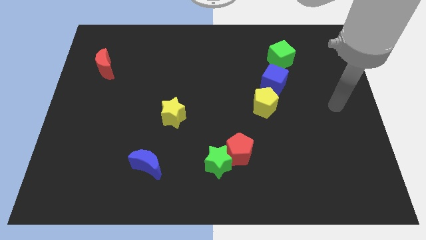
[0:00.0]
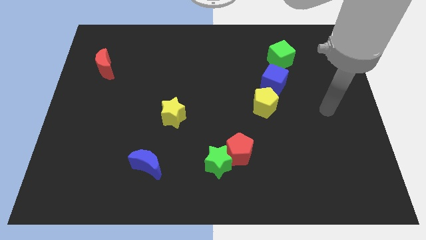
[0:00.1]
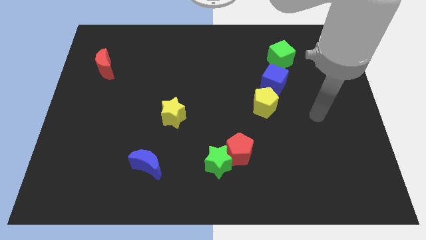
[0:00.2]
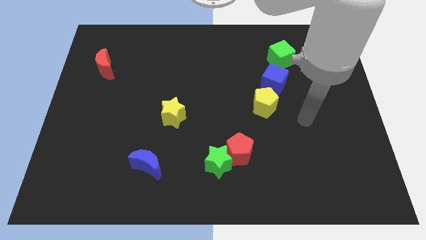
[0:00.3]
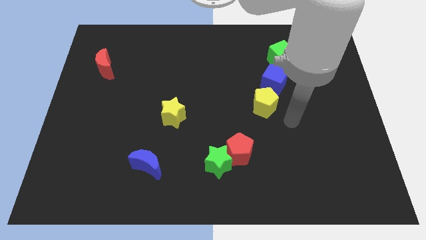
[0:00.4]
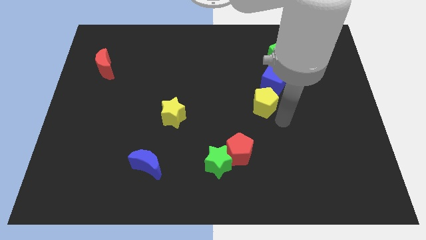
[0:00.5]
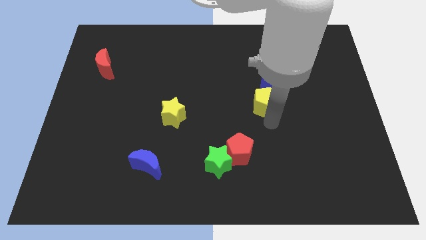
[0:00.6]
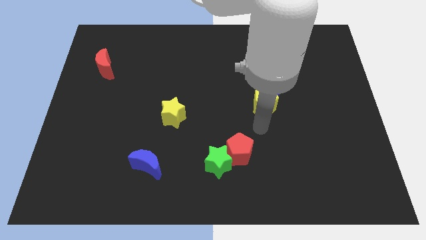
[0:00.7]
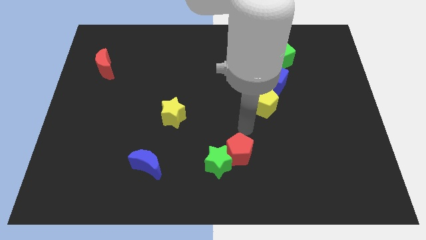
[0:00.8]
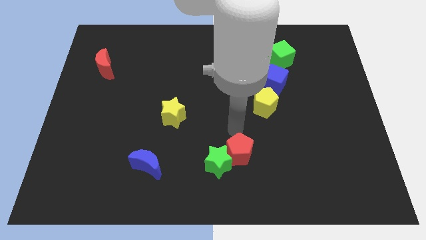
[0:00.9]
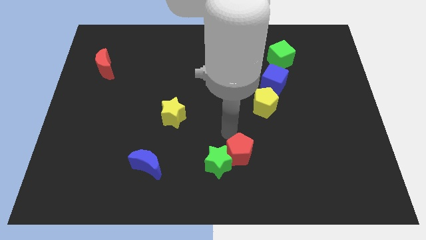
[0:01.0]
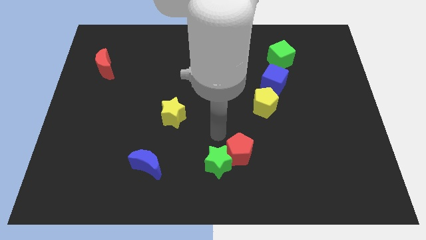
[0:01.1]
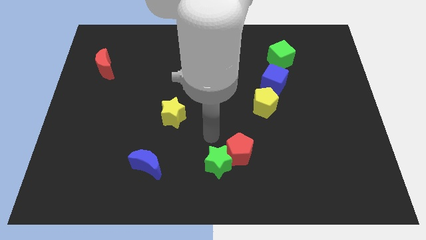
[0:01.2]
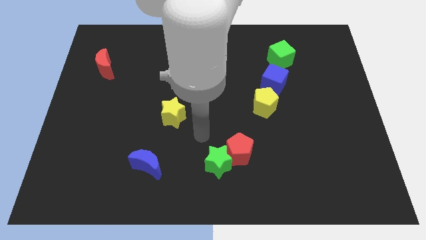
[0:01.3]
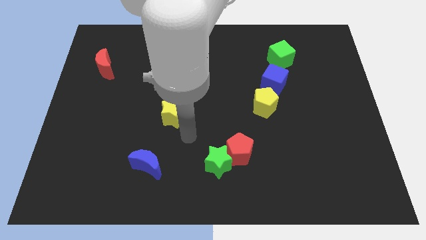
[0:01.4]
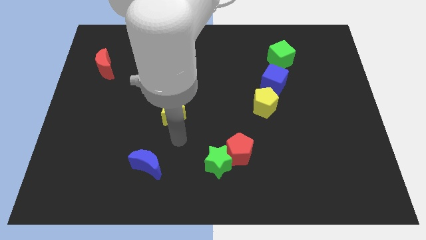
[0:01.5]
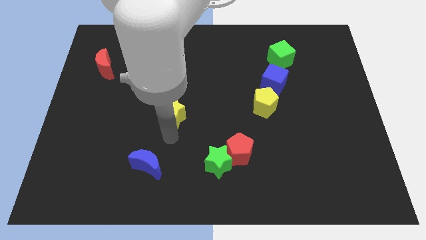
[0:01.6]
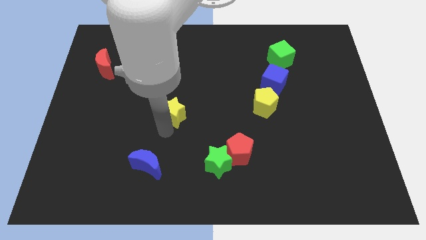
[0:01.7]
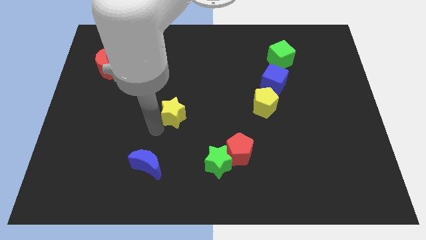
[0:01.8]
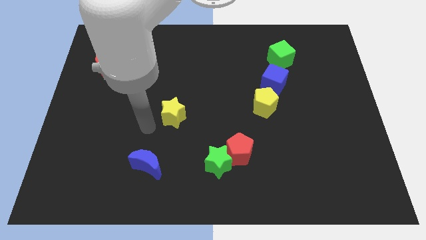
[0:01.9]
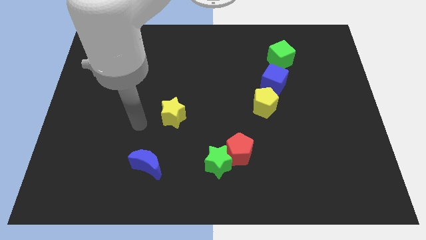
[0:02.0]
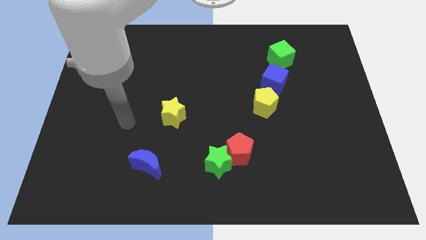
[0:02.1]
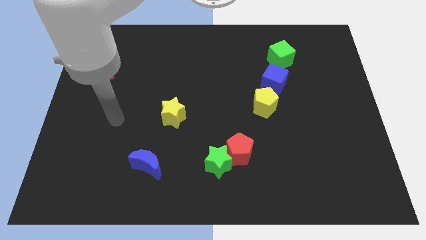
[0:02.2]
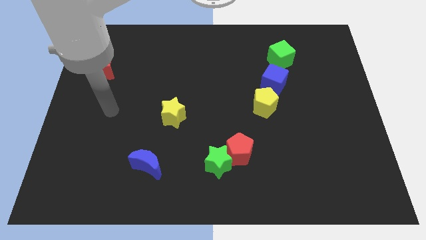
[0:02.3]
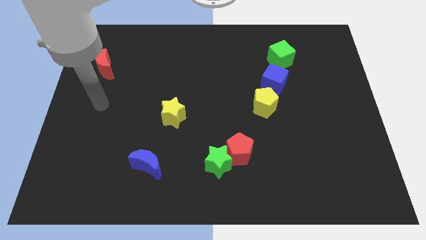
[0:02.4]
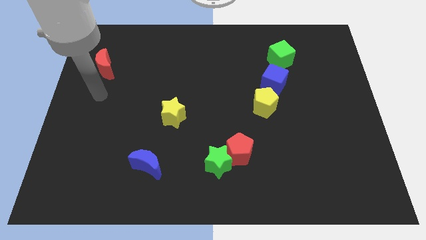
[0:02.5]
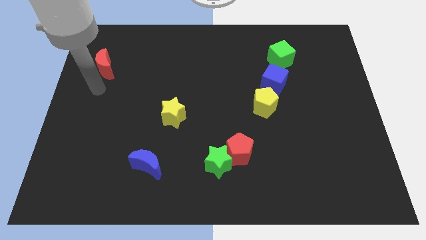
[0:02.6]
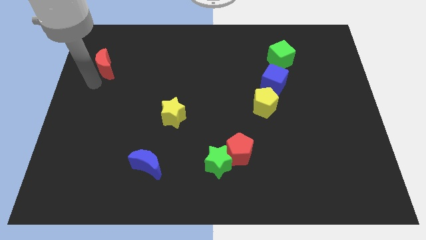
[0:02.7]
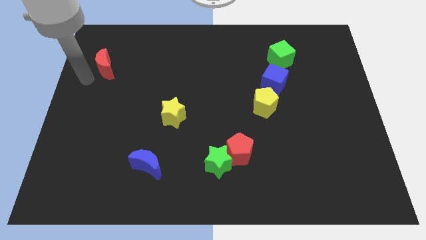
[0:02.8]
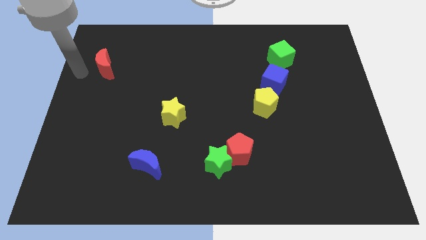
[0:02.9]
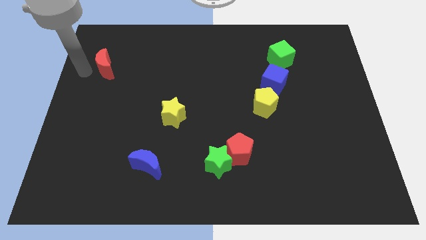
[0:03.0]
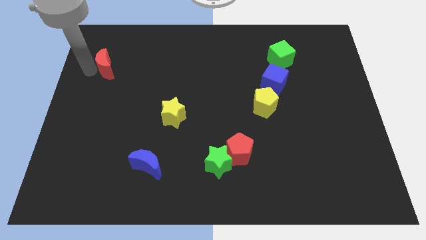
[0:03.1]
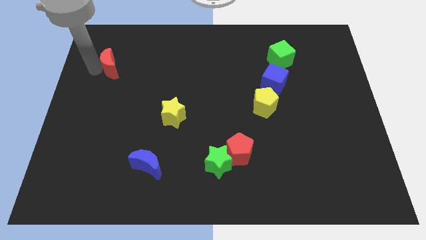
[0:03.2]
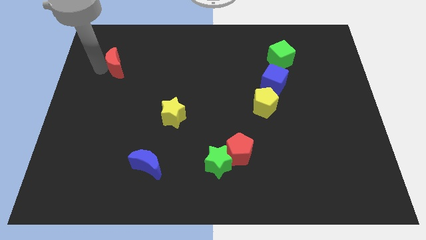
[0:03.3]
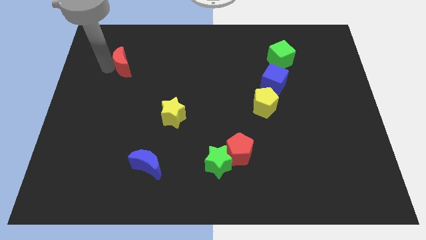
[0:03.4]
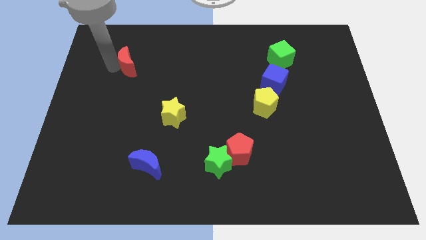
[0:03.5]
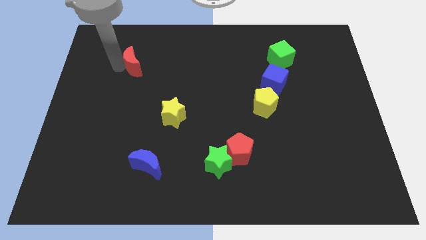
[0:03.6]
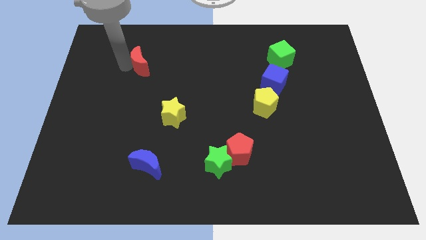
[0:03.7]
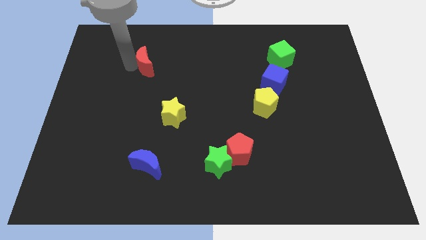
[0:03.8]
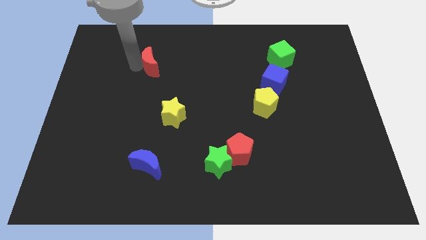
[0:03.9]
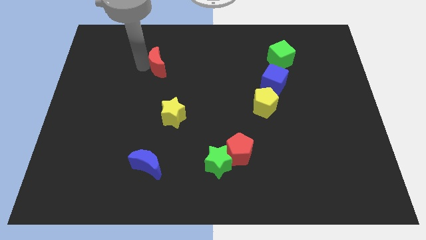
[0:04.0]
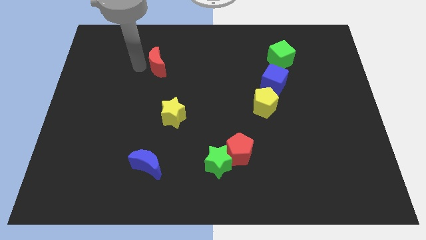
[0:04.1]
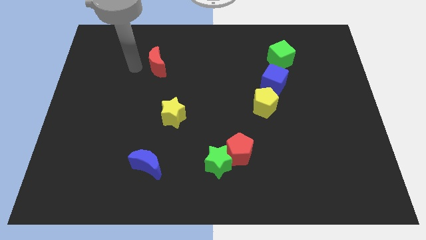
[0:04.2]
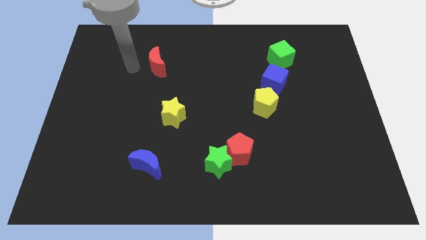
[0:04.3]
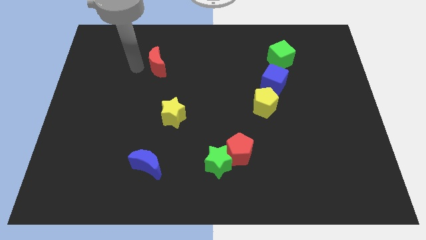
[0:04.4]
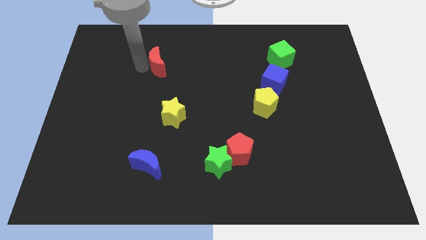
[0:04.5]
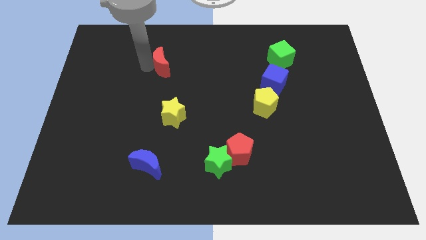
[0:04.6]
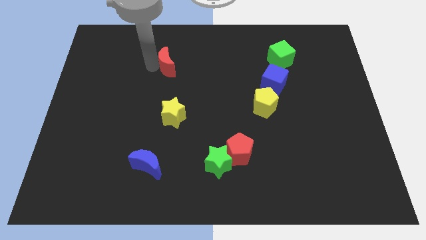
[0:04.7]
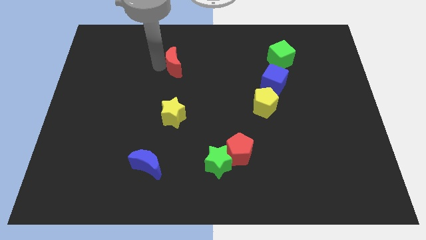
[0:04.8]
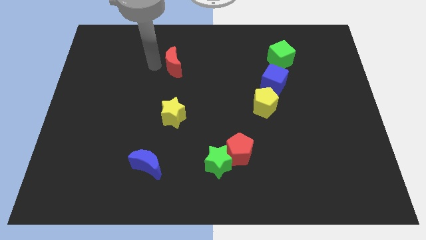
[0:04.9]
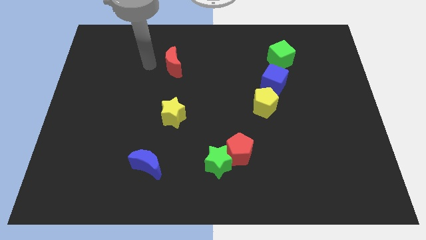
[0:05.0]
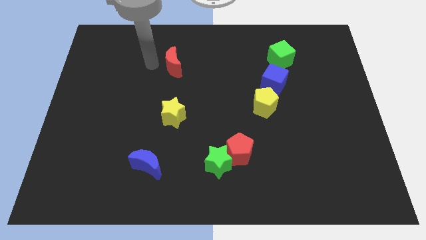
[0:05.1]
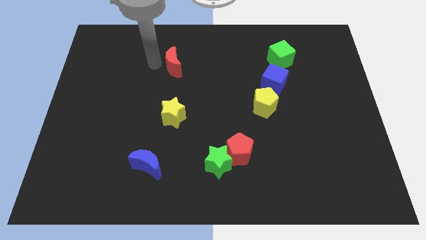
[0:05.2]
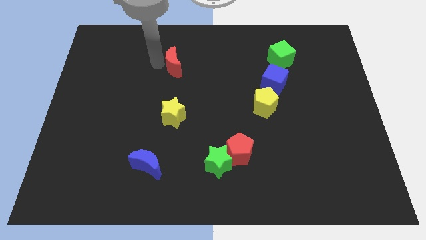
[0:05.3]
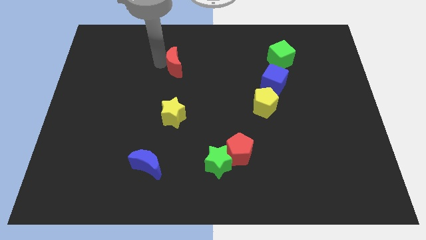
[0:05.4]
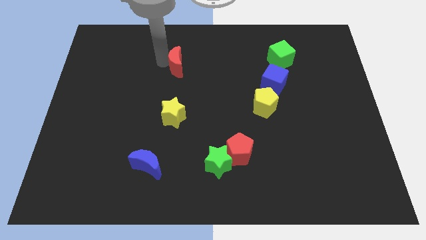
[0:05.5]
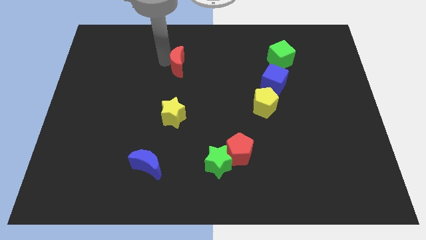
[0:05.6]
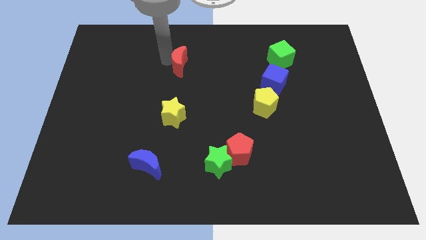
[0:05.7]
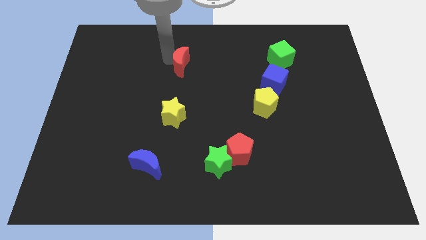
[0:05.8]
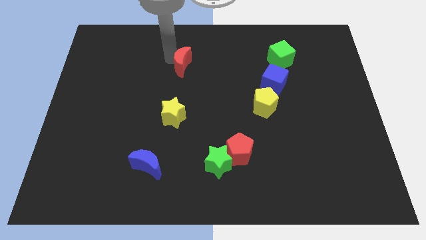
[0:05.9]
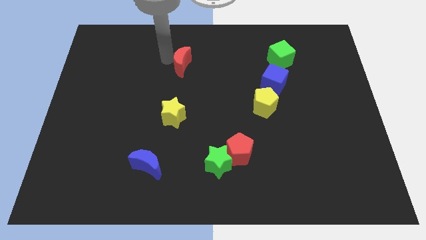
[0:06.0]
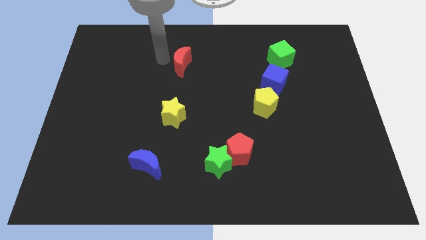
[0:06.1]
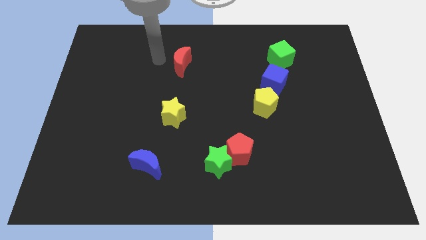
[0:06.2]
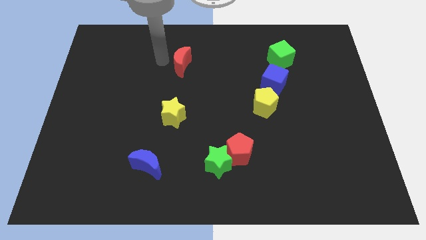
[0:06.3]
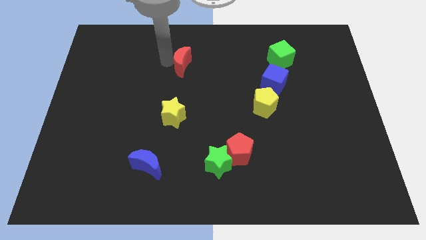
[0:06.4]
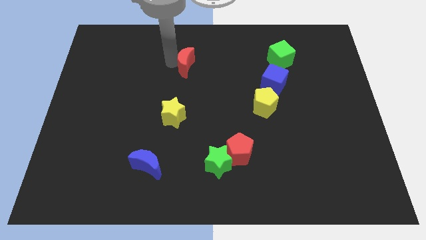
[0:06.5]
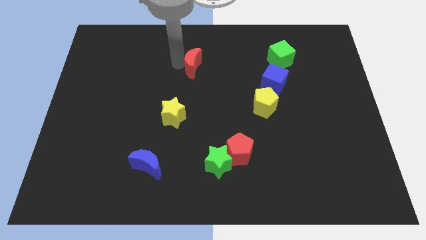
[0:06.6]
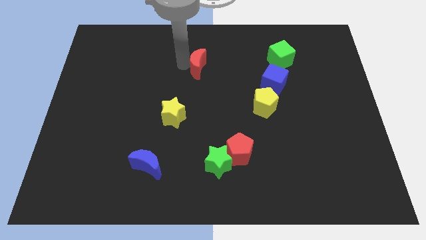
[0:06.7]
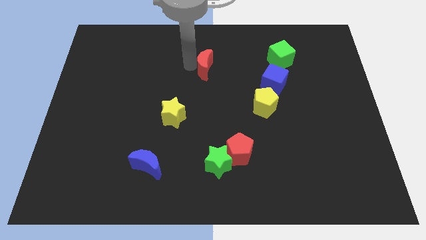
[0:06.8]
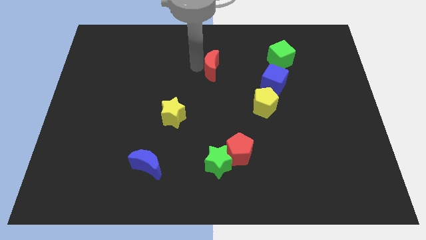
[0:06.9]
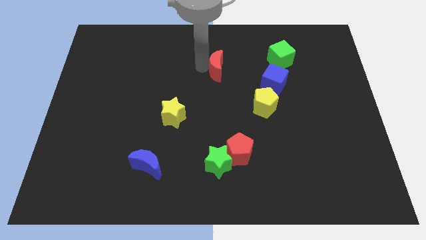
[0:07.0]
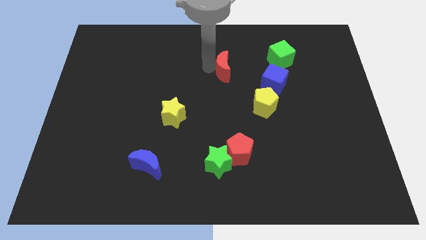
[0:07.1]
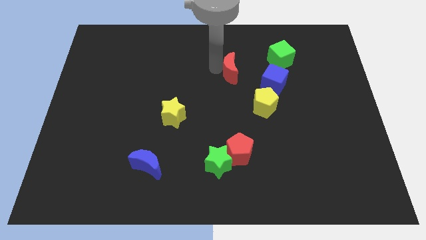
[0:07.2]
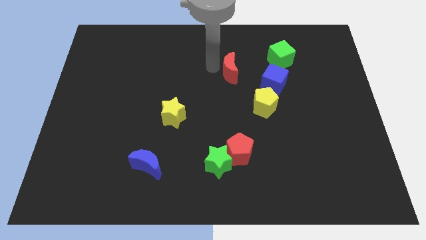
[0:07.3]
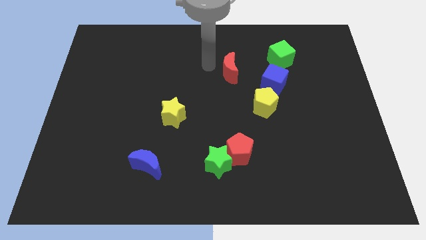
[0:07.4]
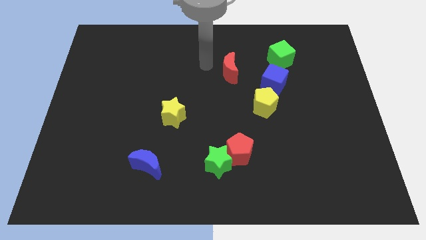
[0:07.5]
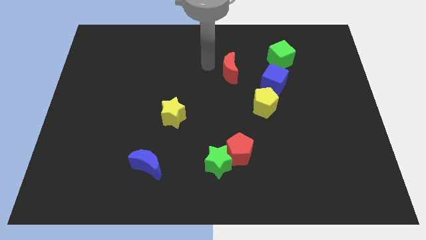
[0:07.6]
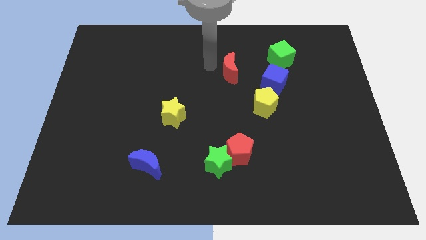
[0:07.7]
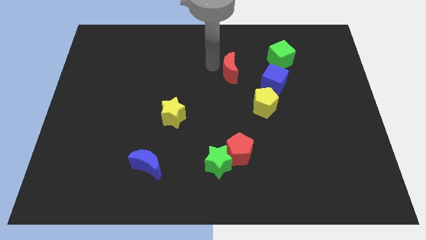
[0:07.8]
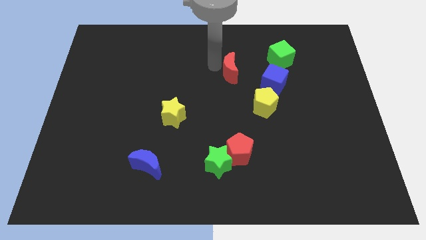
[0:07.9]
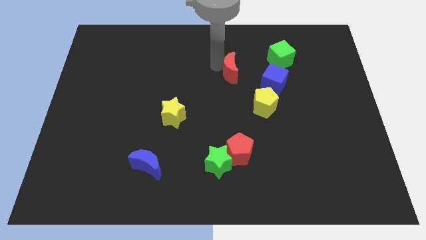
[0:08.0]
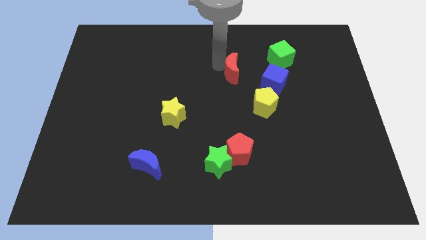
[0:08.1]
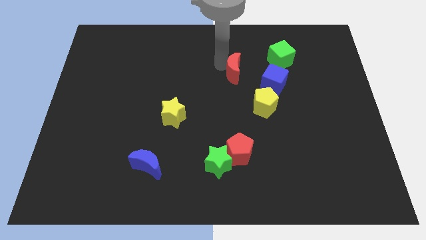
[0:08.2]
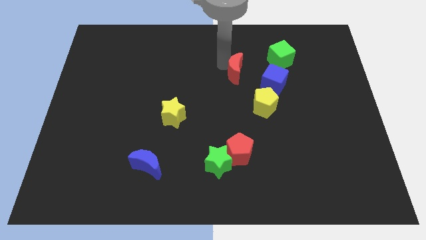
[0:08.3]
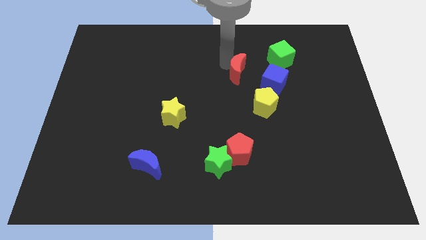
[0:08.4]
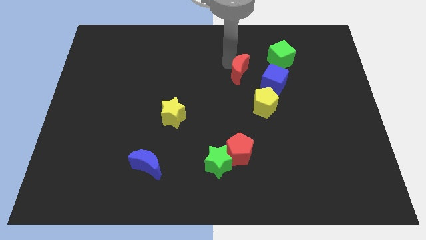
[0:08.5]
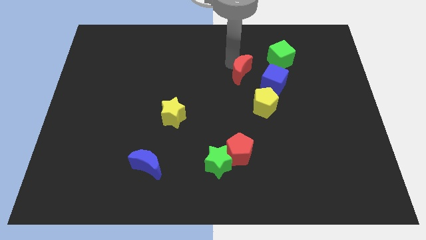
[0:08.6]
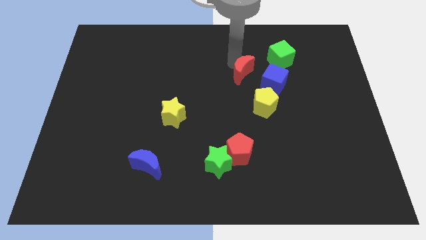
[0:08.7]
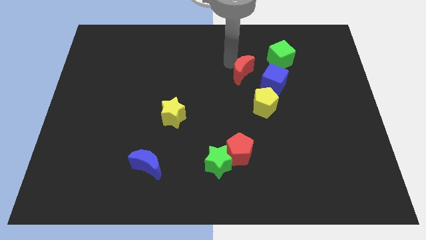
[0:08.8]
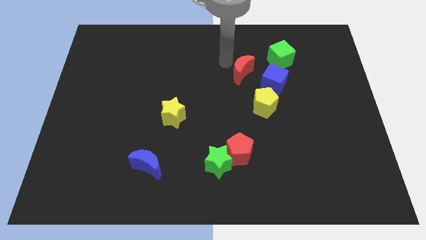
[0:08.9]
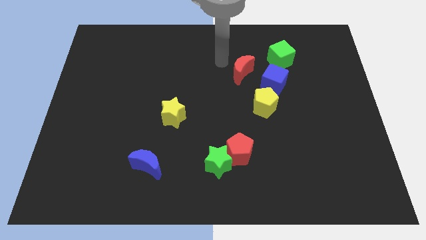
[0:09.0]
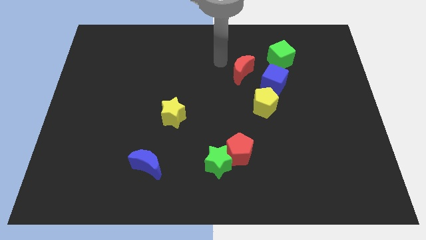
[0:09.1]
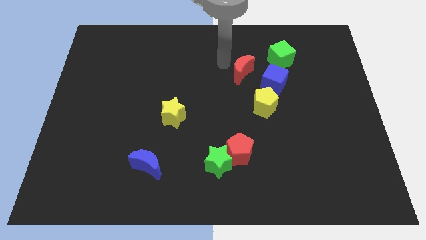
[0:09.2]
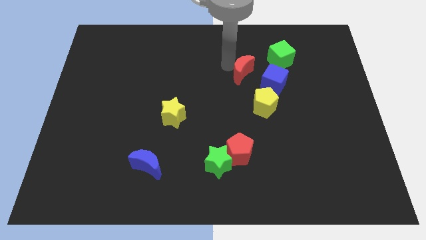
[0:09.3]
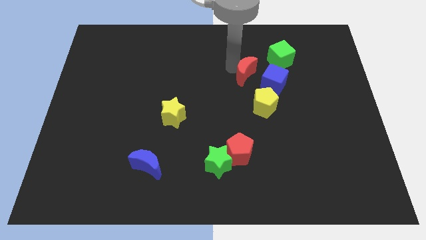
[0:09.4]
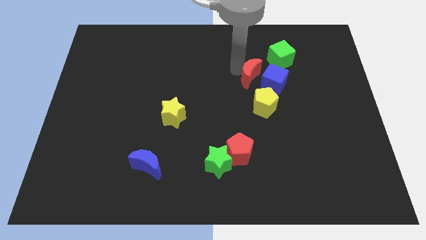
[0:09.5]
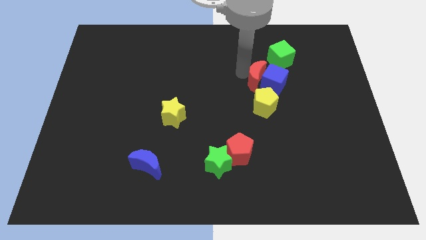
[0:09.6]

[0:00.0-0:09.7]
push the red moon to the blue cube
